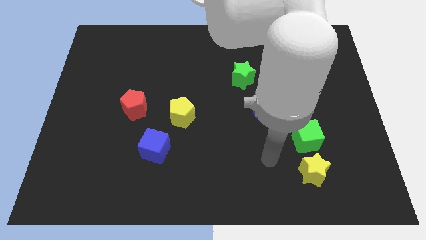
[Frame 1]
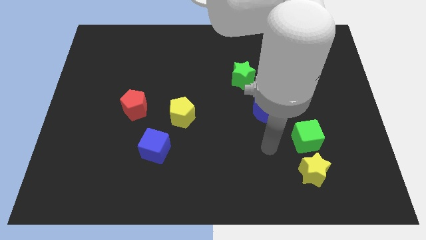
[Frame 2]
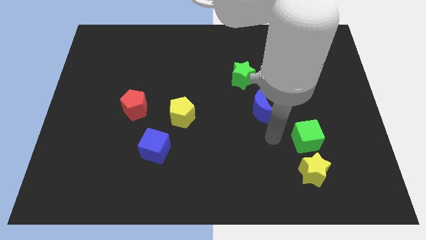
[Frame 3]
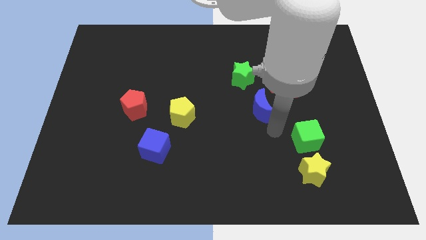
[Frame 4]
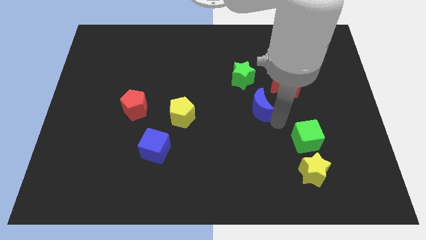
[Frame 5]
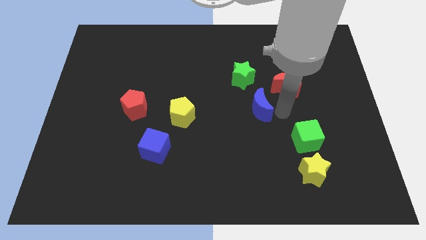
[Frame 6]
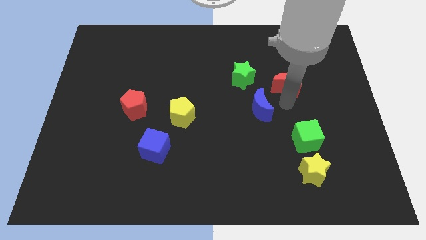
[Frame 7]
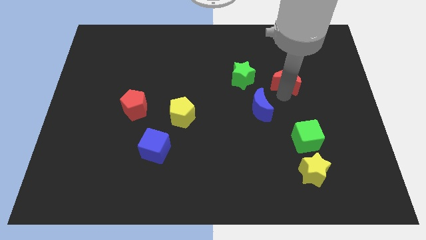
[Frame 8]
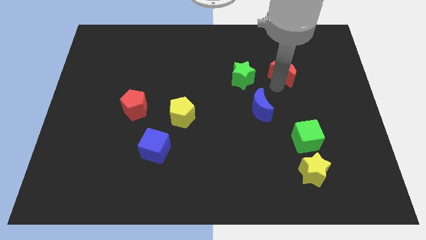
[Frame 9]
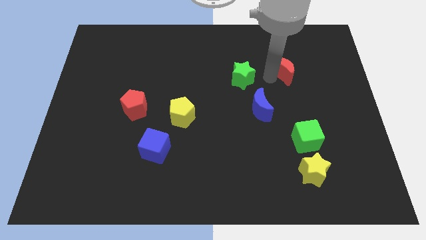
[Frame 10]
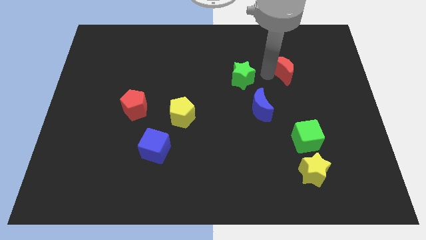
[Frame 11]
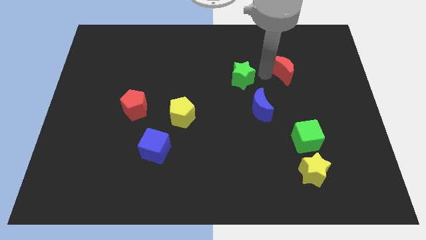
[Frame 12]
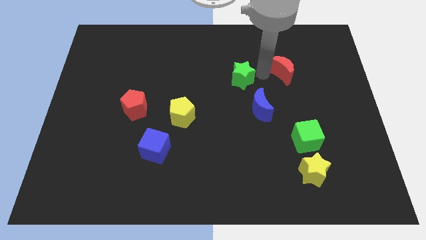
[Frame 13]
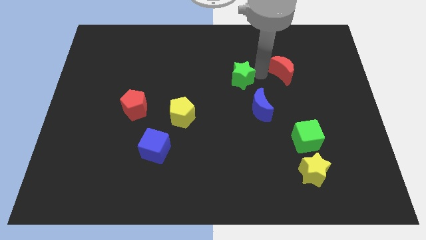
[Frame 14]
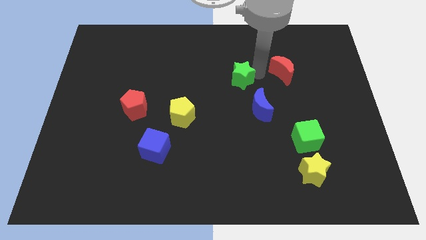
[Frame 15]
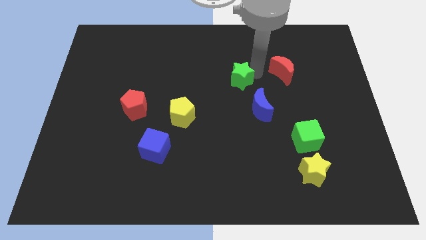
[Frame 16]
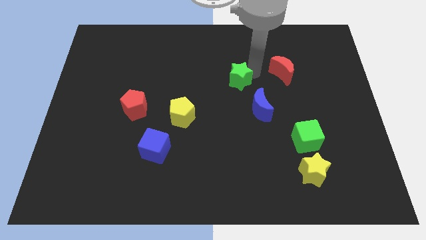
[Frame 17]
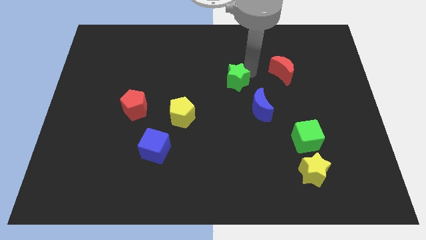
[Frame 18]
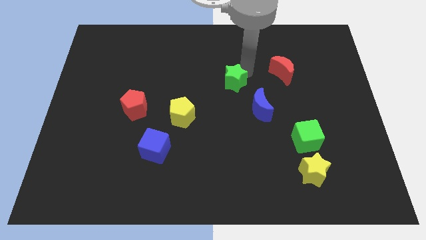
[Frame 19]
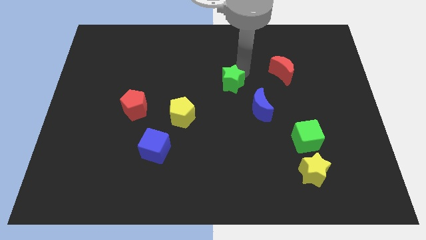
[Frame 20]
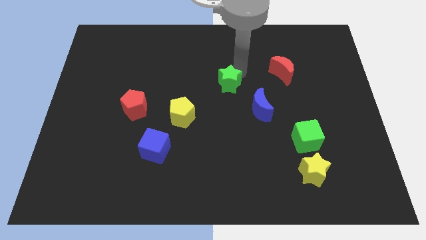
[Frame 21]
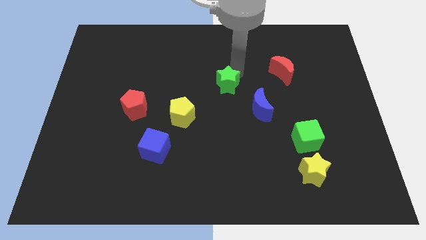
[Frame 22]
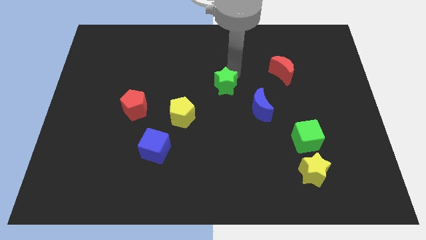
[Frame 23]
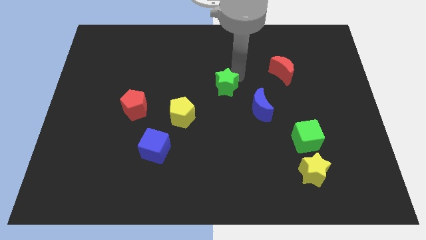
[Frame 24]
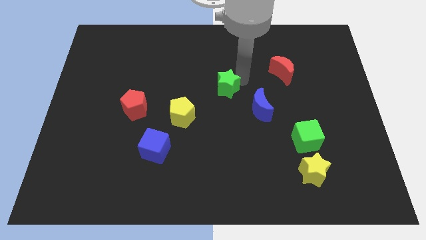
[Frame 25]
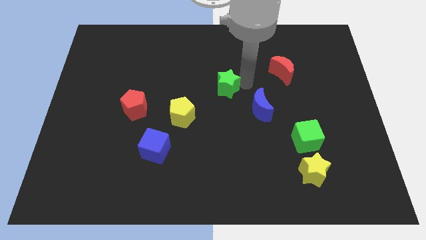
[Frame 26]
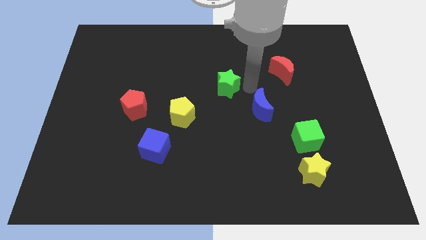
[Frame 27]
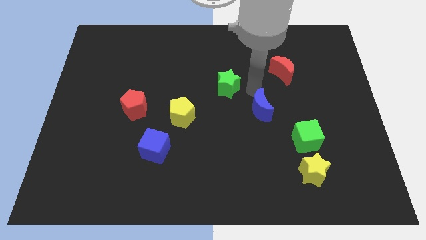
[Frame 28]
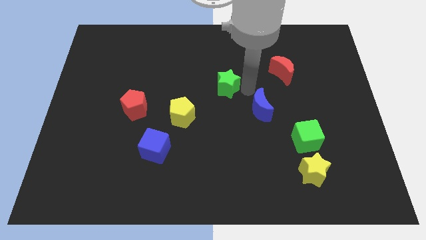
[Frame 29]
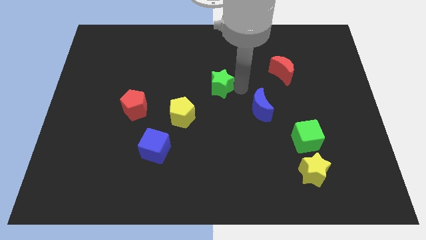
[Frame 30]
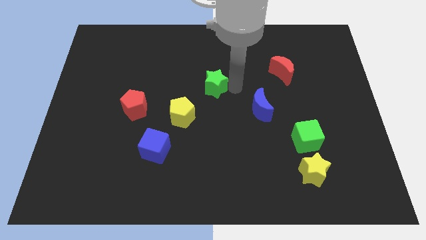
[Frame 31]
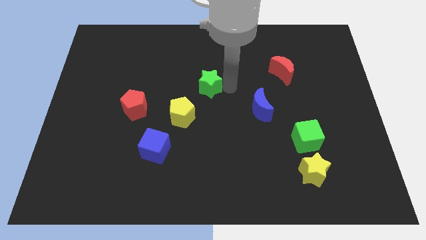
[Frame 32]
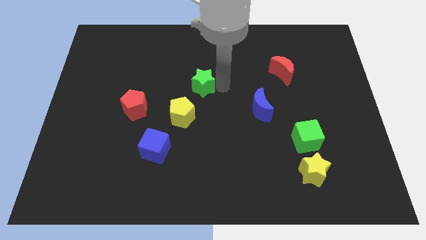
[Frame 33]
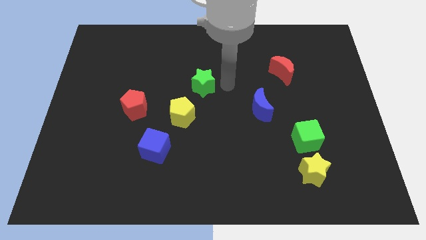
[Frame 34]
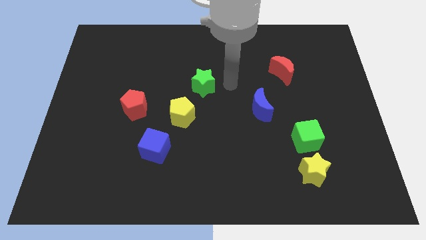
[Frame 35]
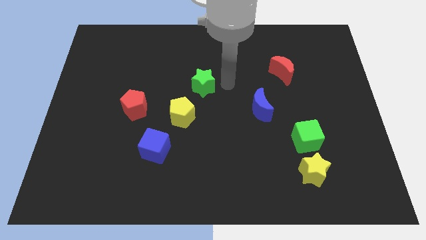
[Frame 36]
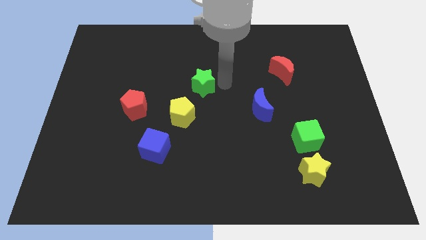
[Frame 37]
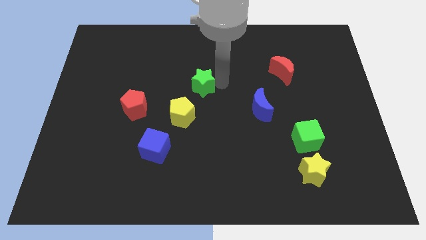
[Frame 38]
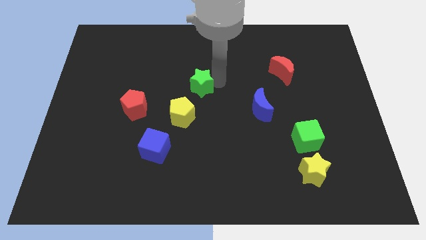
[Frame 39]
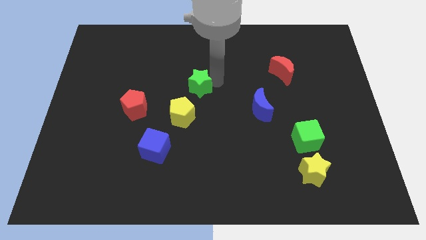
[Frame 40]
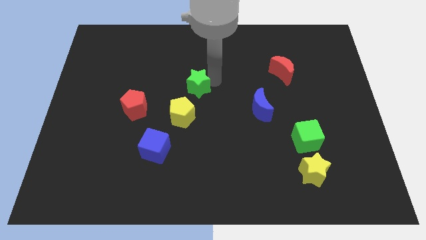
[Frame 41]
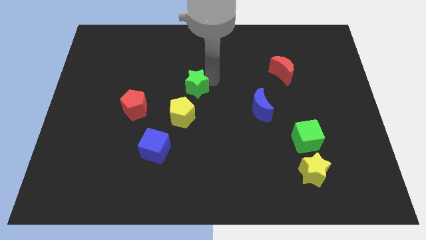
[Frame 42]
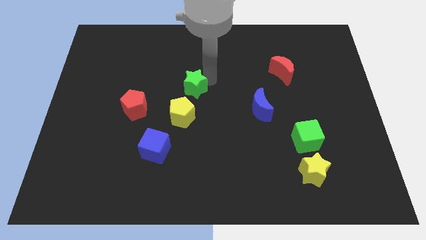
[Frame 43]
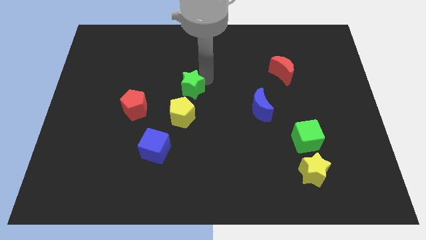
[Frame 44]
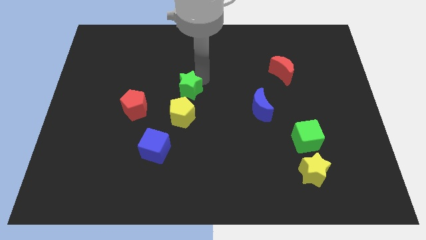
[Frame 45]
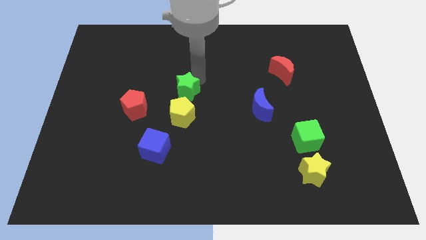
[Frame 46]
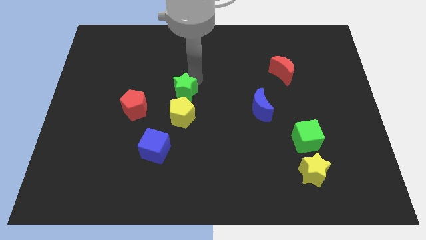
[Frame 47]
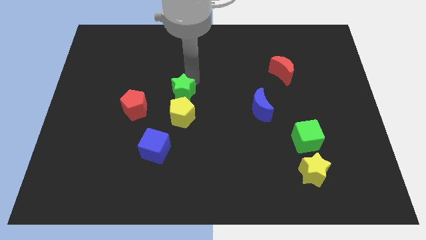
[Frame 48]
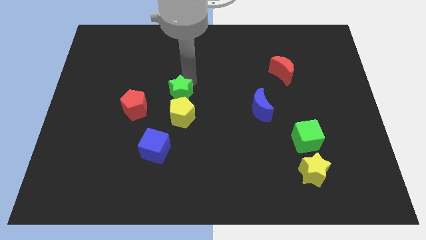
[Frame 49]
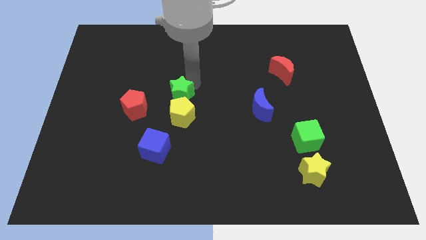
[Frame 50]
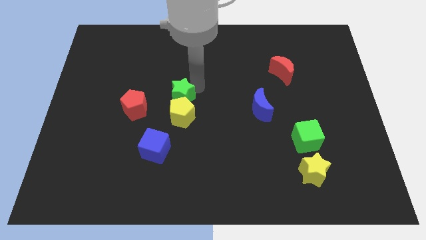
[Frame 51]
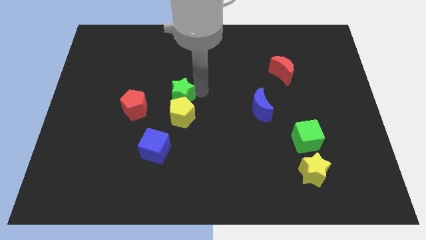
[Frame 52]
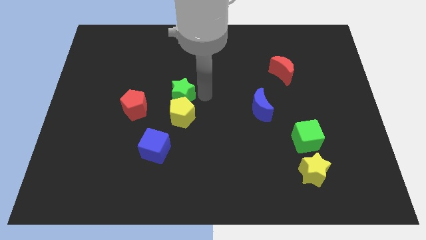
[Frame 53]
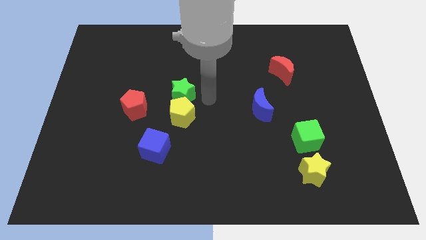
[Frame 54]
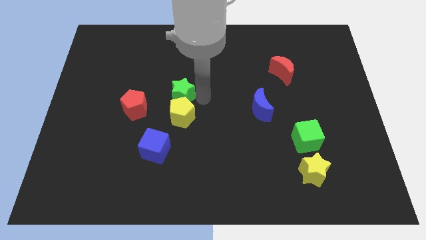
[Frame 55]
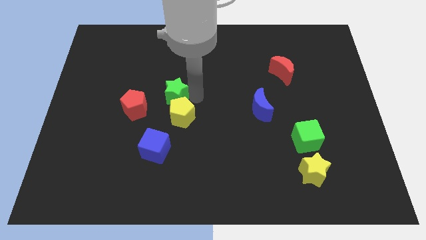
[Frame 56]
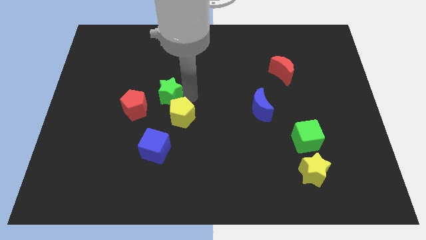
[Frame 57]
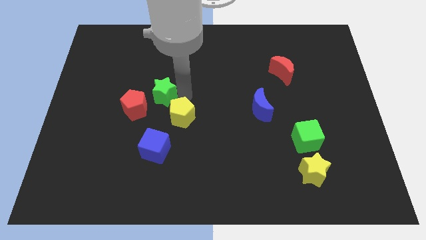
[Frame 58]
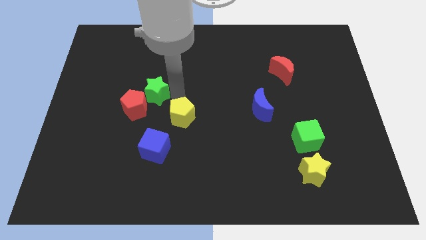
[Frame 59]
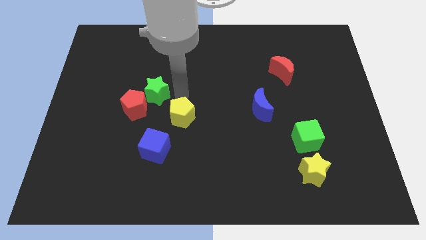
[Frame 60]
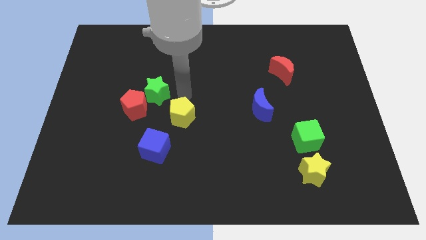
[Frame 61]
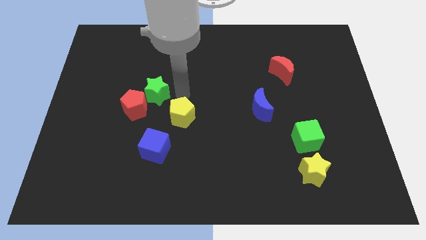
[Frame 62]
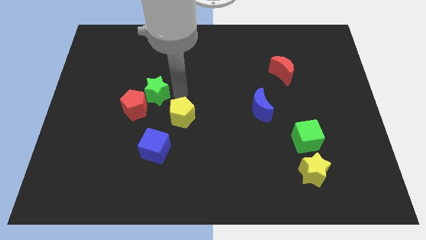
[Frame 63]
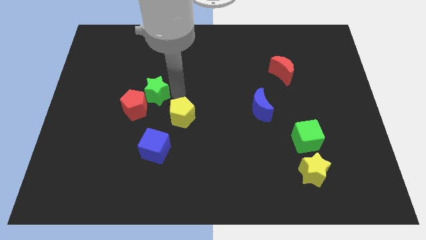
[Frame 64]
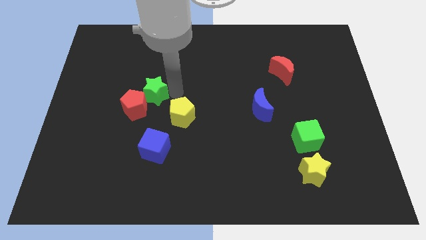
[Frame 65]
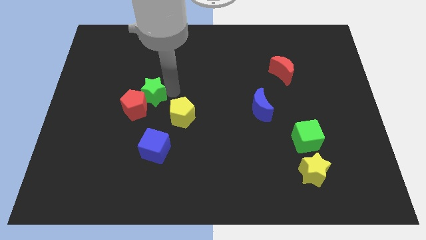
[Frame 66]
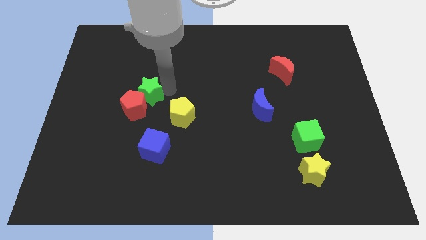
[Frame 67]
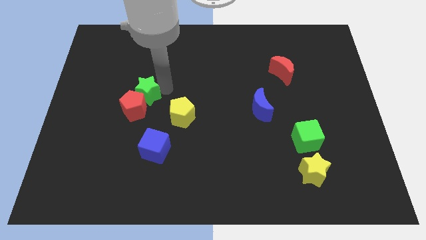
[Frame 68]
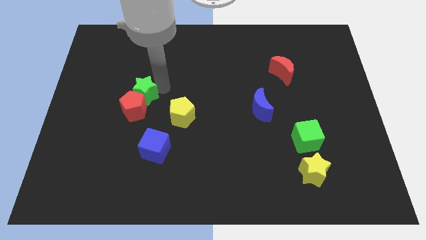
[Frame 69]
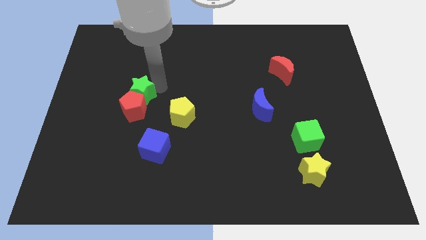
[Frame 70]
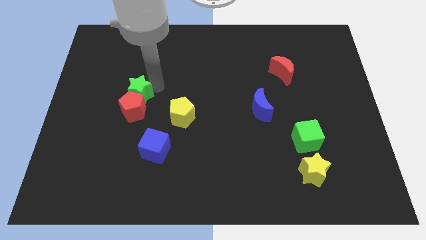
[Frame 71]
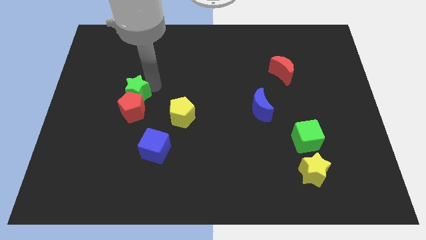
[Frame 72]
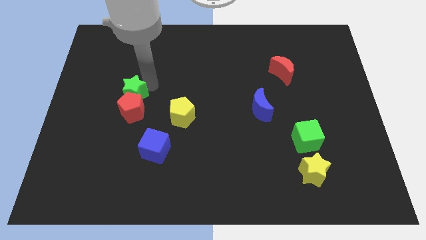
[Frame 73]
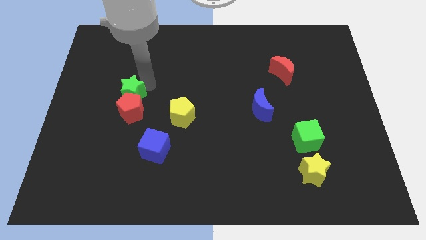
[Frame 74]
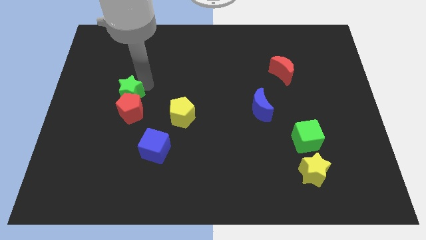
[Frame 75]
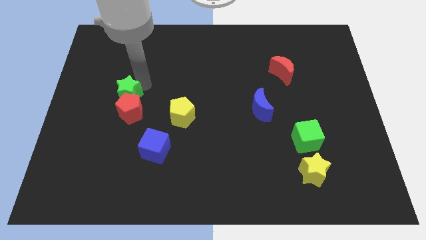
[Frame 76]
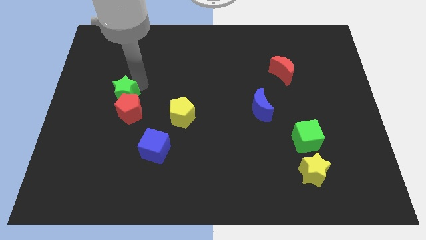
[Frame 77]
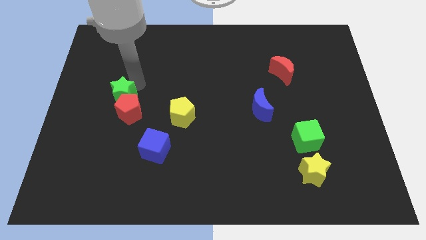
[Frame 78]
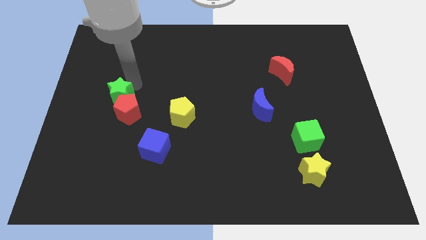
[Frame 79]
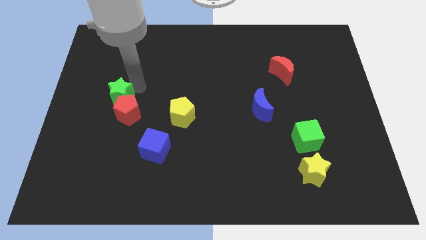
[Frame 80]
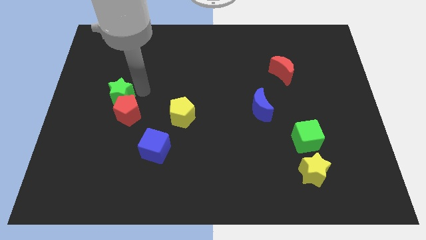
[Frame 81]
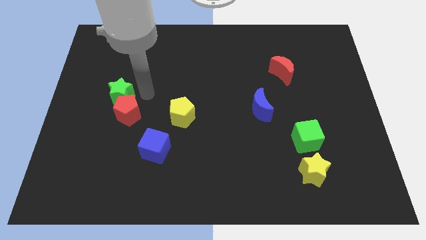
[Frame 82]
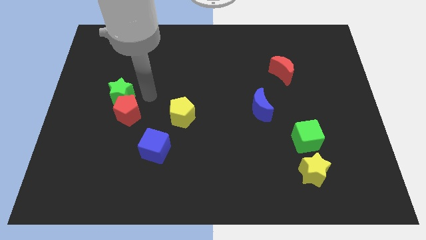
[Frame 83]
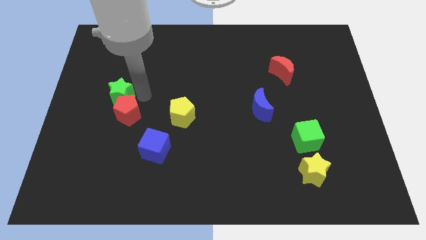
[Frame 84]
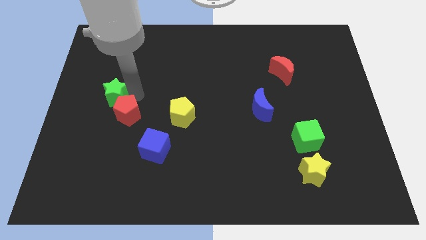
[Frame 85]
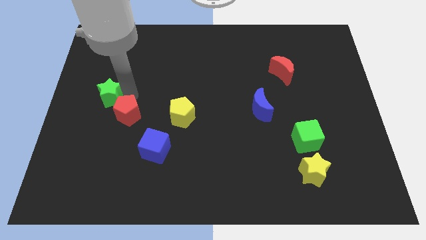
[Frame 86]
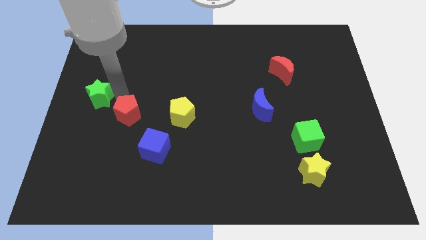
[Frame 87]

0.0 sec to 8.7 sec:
push the green star to the left side
